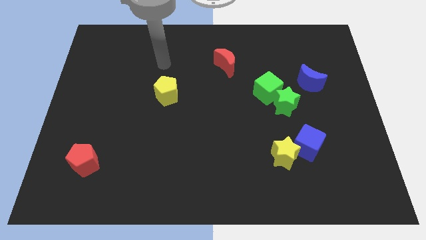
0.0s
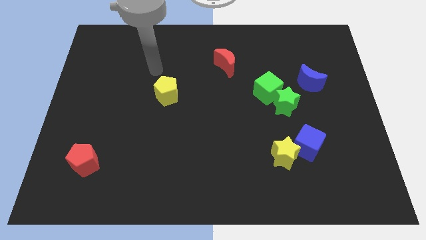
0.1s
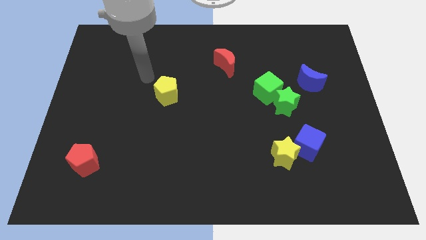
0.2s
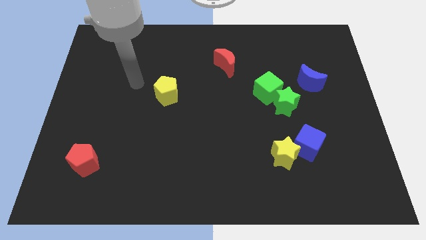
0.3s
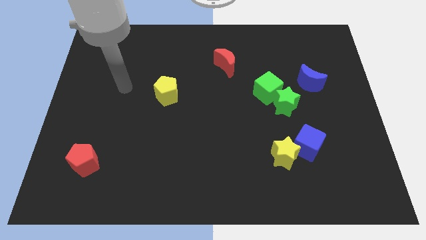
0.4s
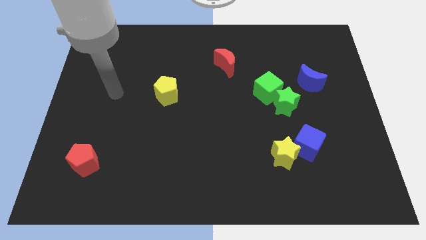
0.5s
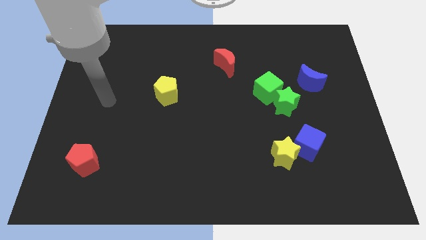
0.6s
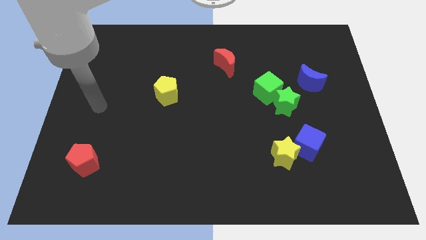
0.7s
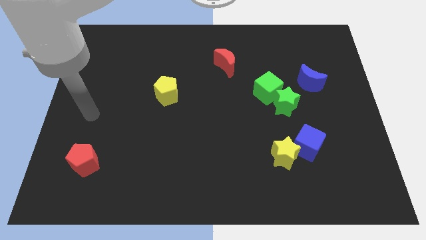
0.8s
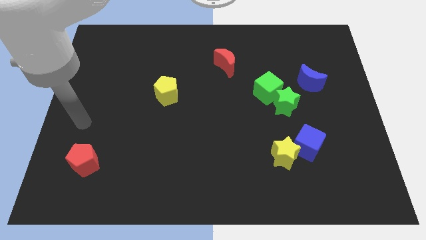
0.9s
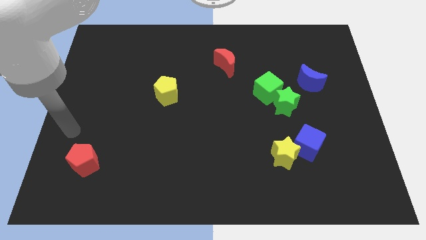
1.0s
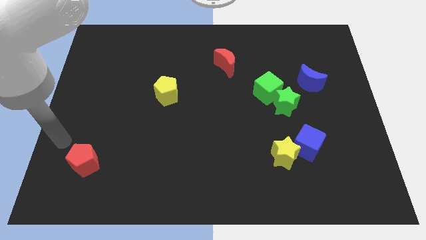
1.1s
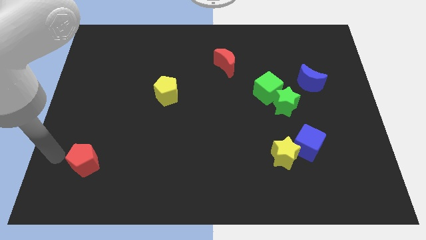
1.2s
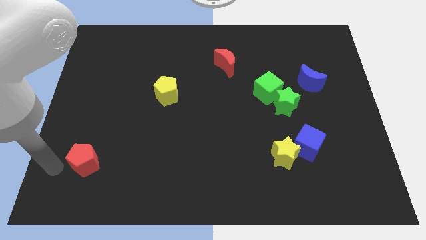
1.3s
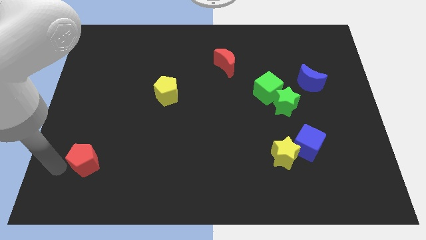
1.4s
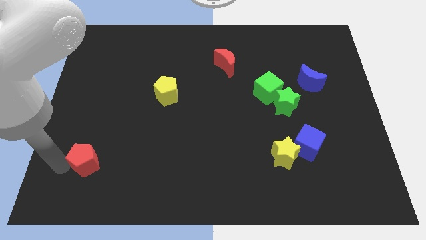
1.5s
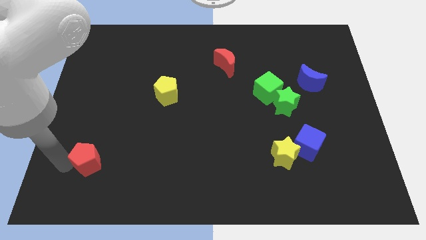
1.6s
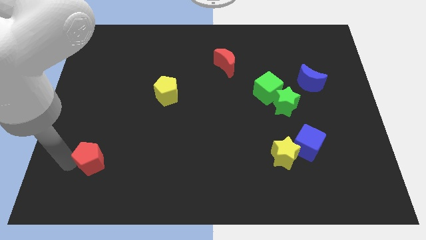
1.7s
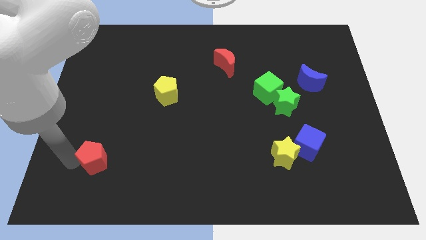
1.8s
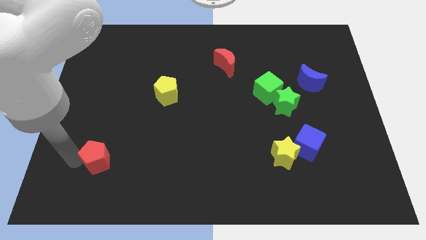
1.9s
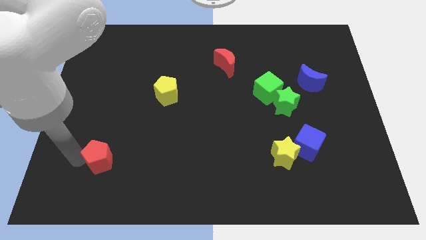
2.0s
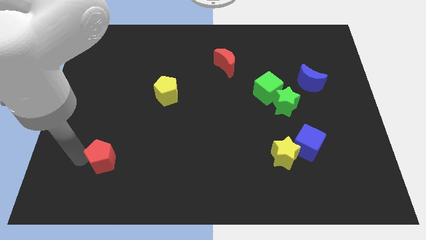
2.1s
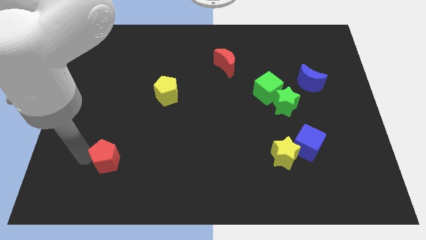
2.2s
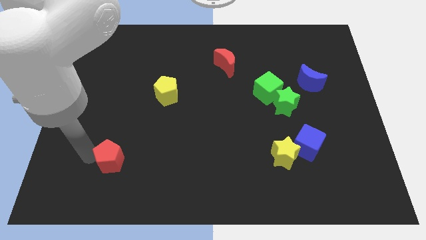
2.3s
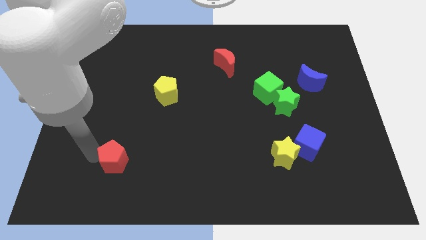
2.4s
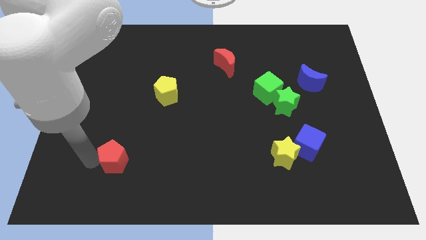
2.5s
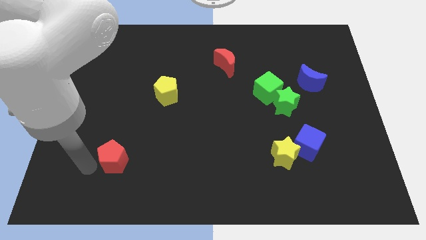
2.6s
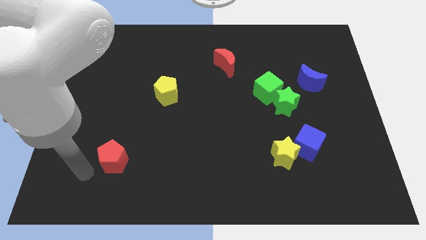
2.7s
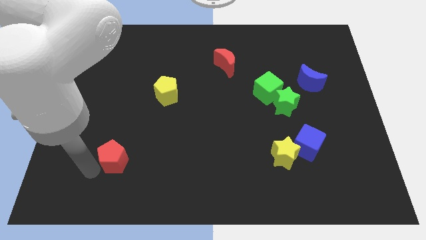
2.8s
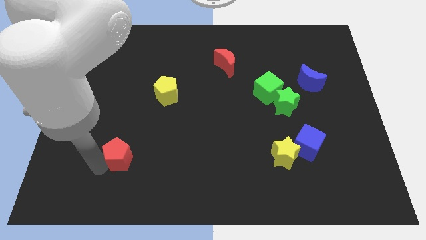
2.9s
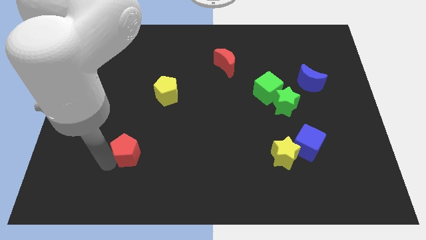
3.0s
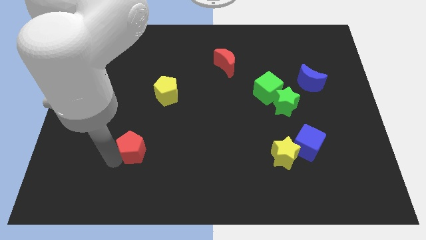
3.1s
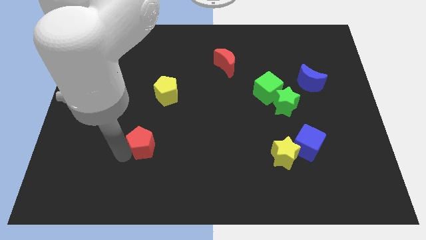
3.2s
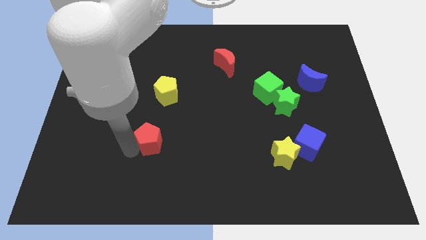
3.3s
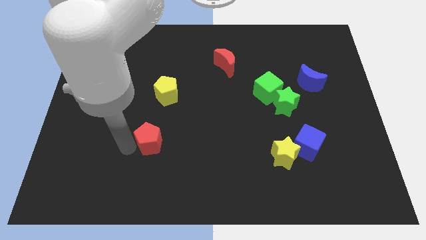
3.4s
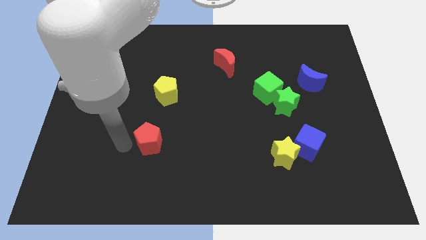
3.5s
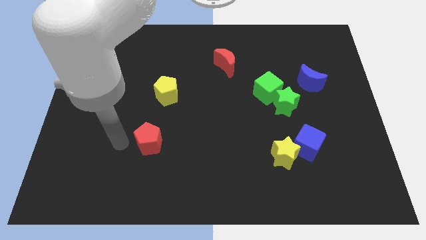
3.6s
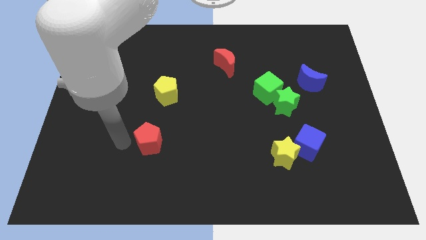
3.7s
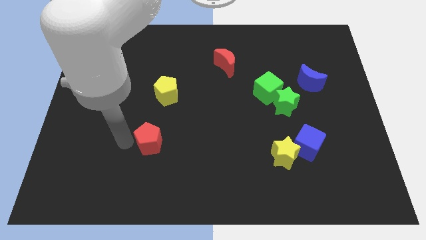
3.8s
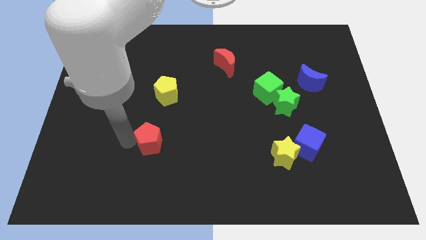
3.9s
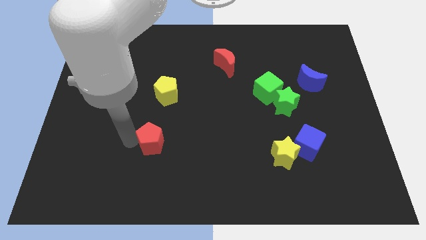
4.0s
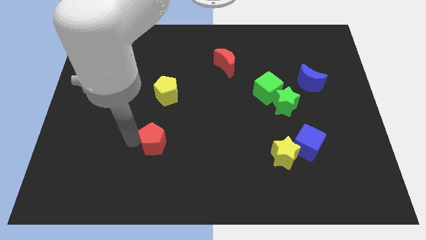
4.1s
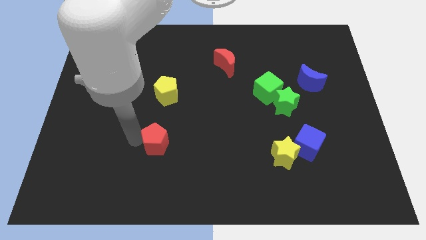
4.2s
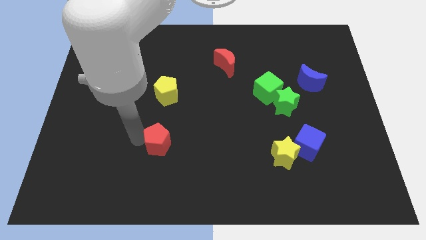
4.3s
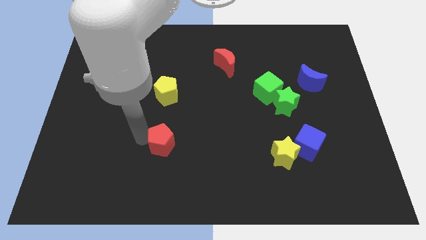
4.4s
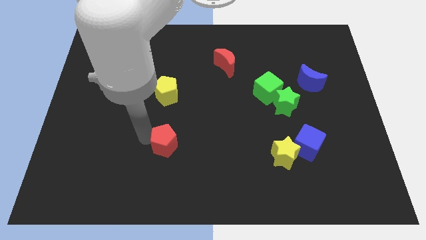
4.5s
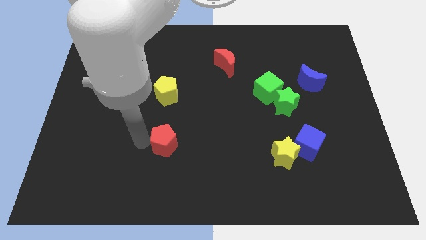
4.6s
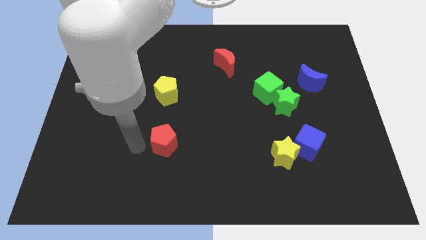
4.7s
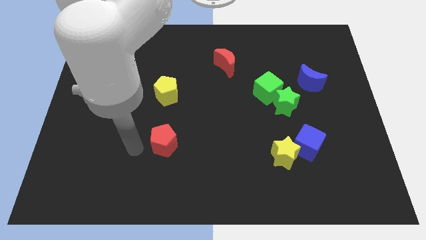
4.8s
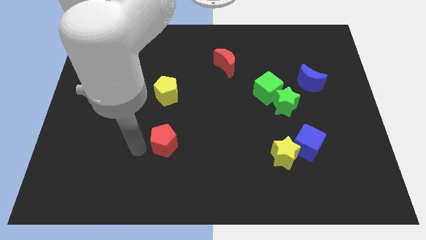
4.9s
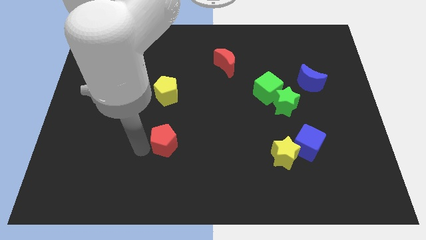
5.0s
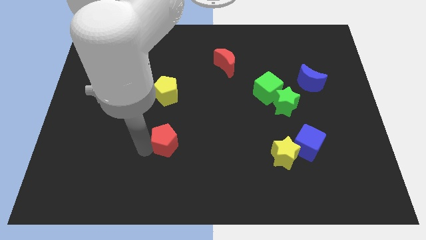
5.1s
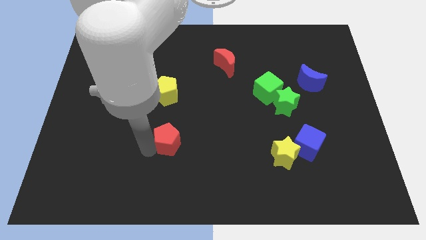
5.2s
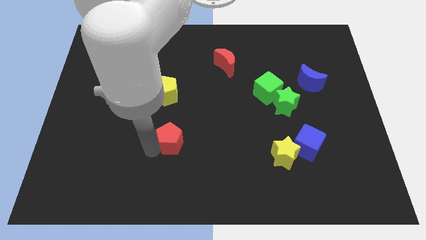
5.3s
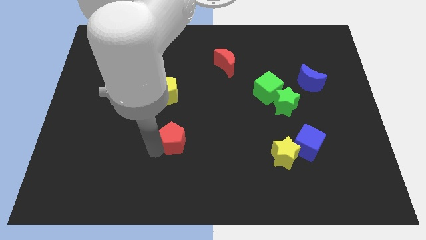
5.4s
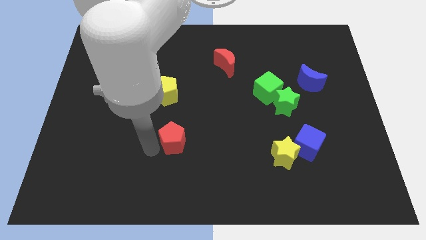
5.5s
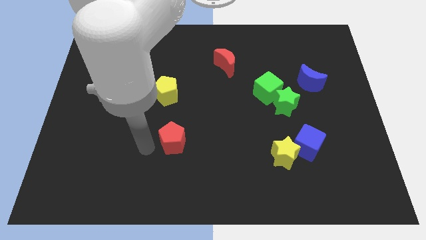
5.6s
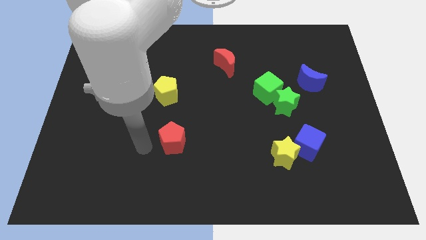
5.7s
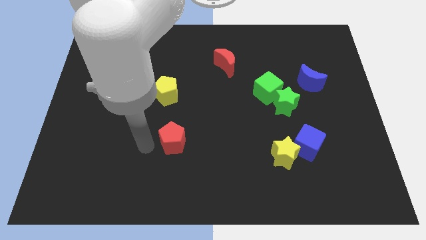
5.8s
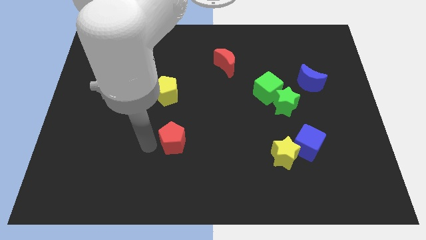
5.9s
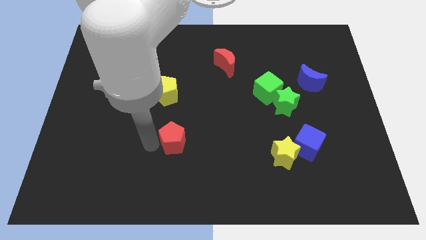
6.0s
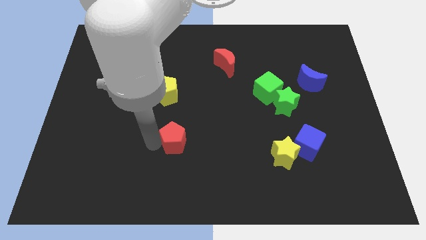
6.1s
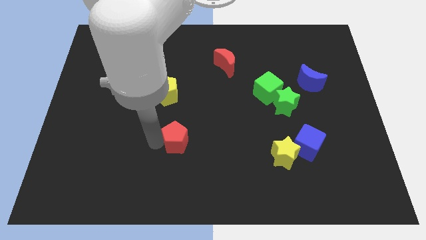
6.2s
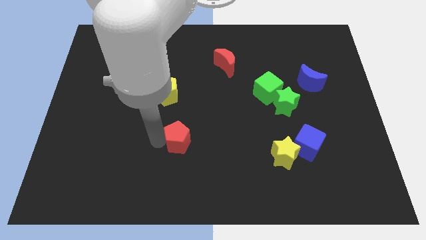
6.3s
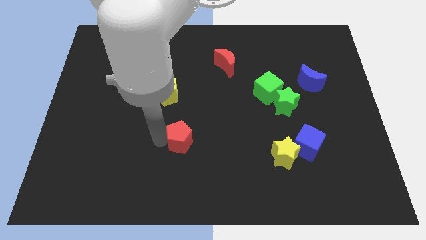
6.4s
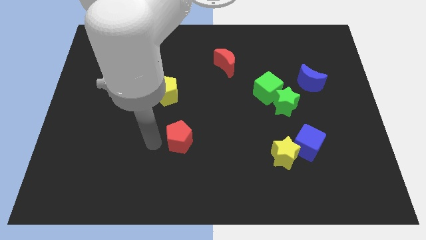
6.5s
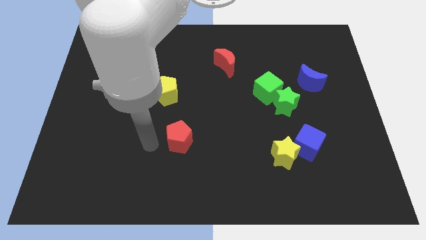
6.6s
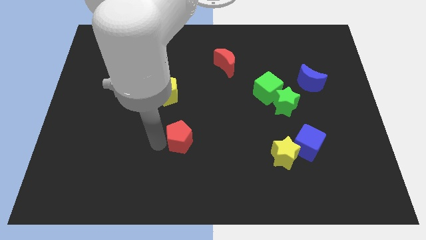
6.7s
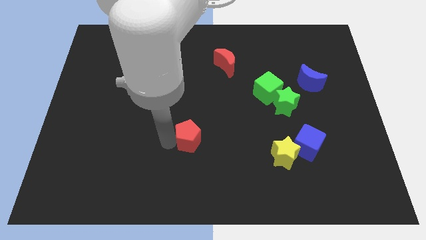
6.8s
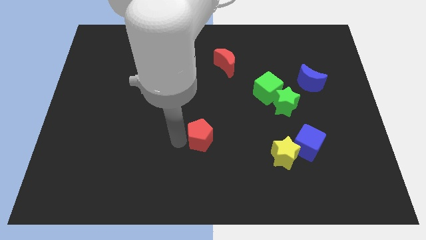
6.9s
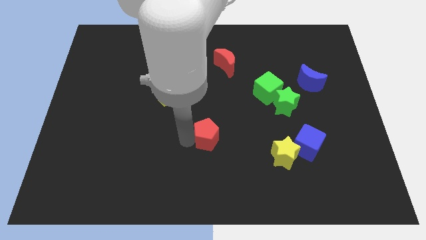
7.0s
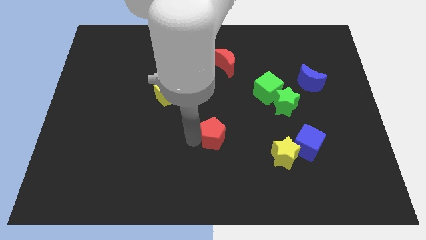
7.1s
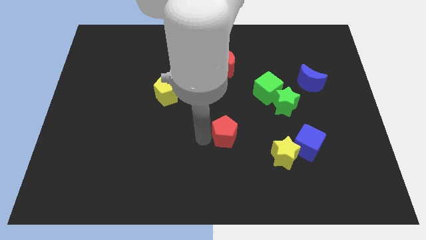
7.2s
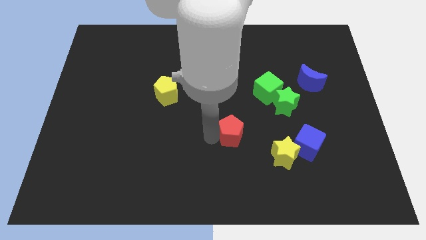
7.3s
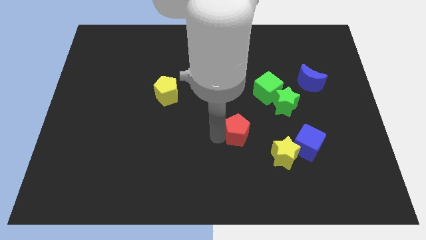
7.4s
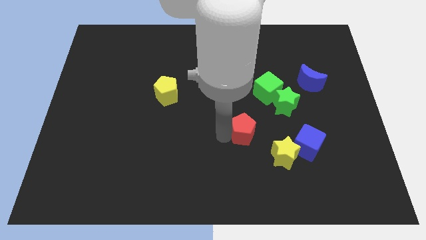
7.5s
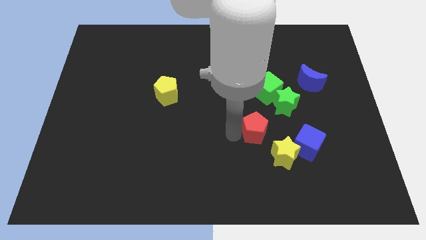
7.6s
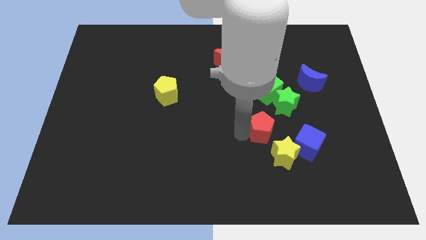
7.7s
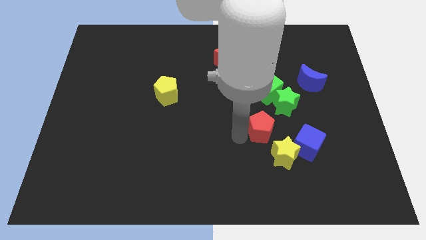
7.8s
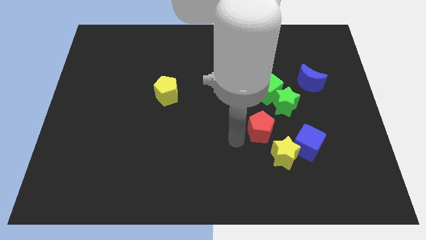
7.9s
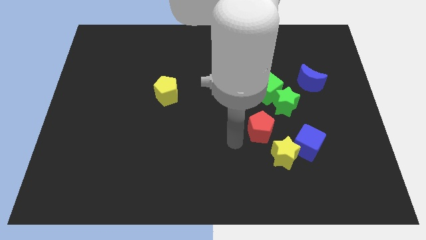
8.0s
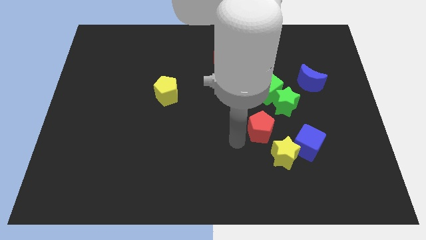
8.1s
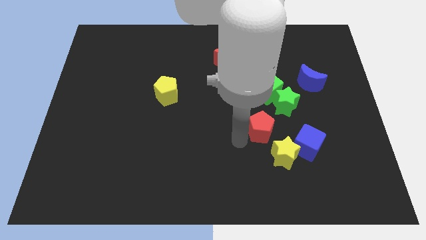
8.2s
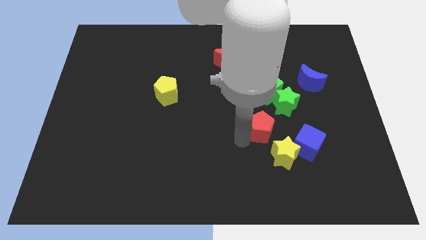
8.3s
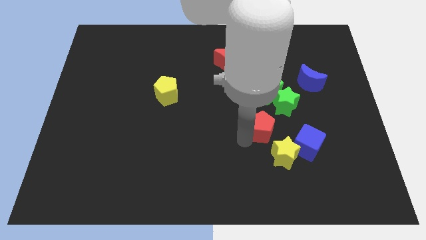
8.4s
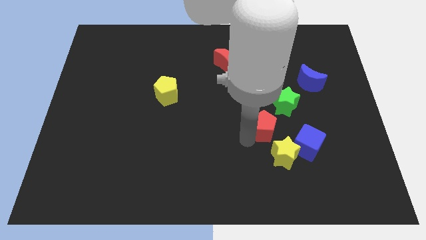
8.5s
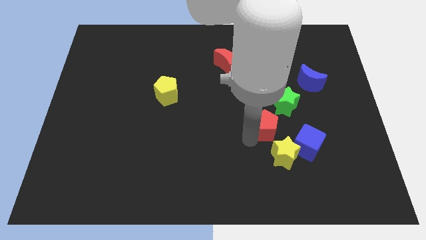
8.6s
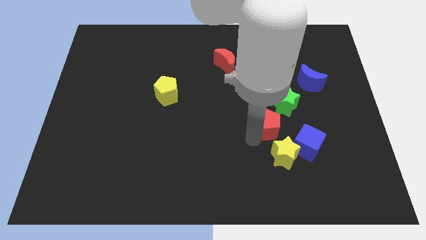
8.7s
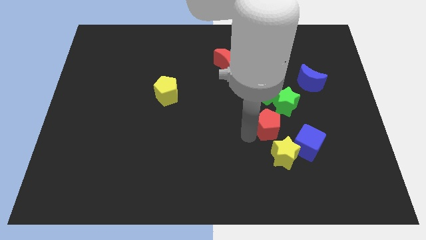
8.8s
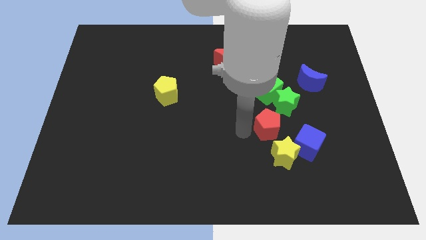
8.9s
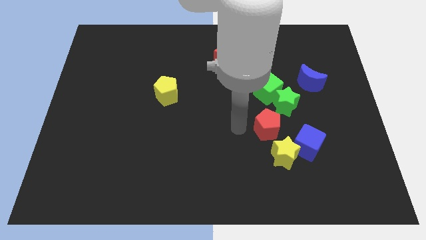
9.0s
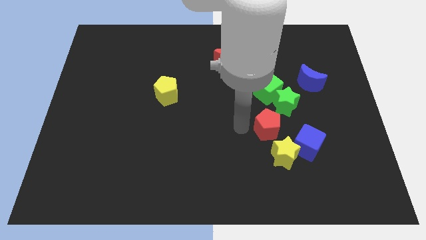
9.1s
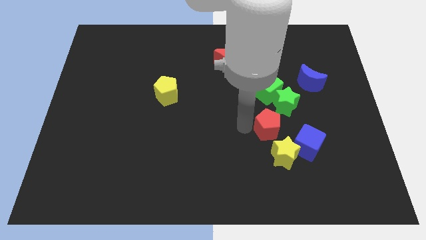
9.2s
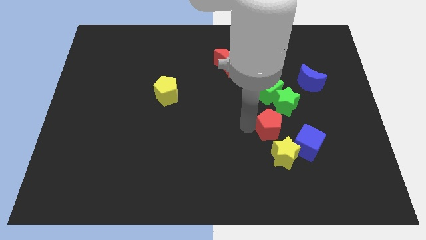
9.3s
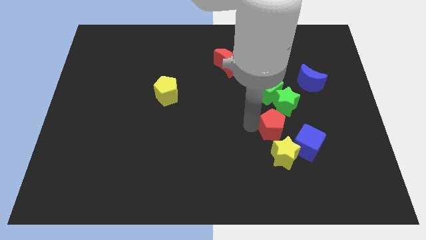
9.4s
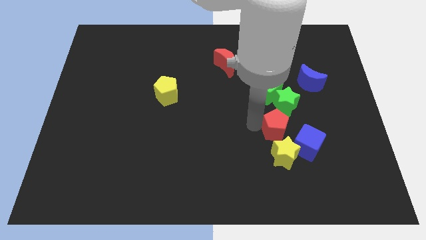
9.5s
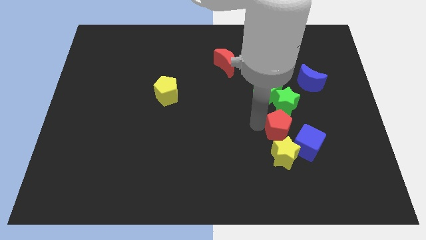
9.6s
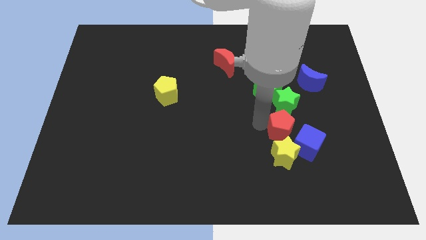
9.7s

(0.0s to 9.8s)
put the red pentagon to the top right side of the yellow star
